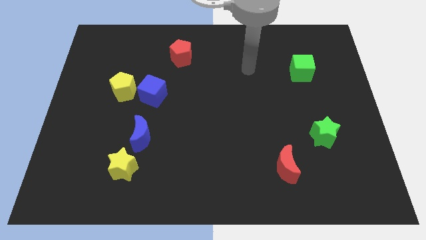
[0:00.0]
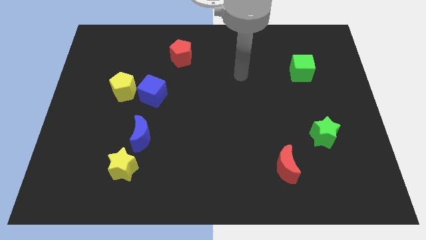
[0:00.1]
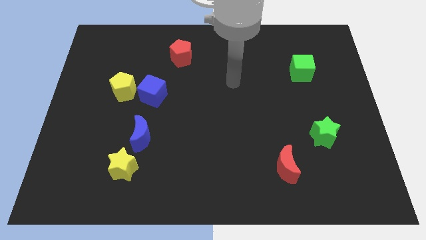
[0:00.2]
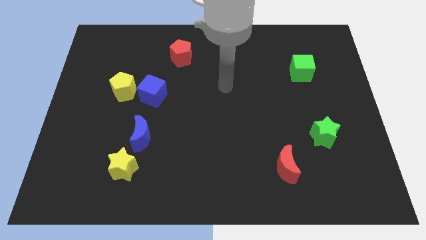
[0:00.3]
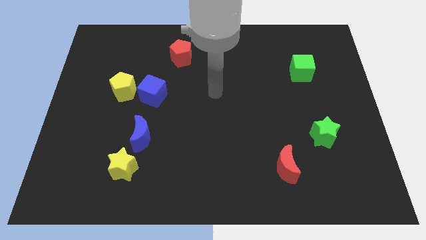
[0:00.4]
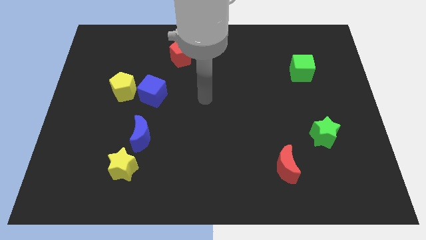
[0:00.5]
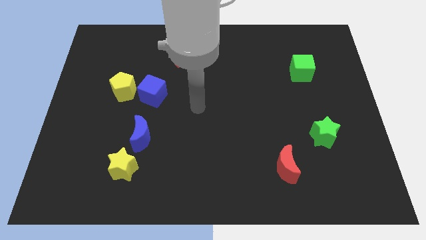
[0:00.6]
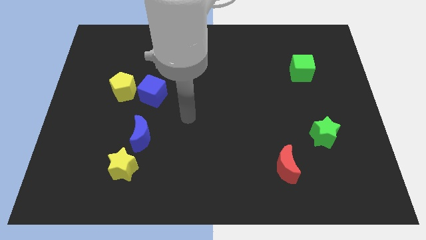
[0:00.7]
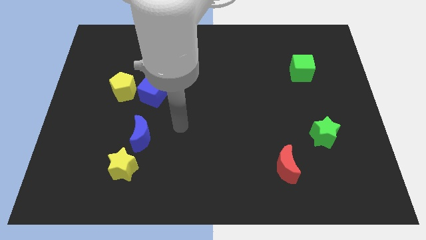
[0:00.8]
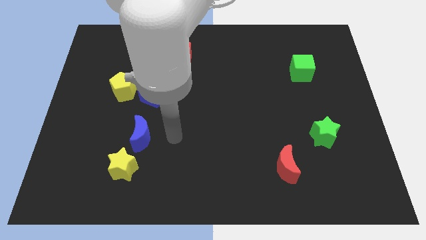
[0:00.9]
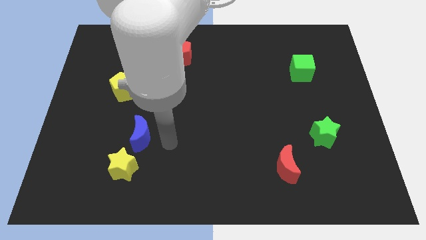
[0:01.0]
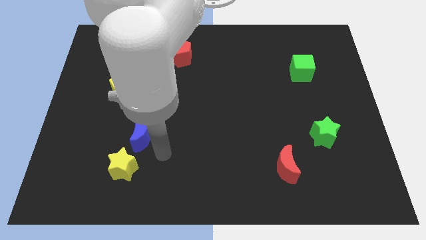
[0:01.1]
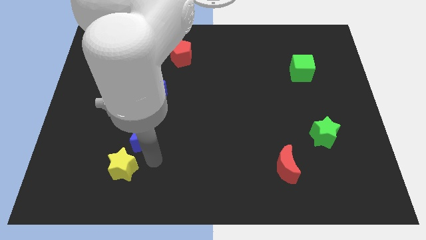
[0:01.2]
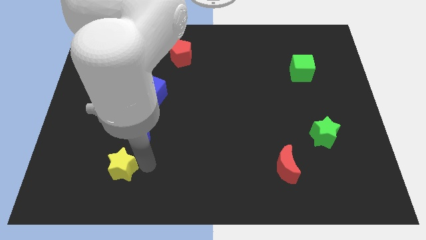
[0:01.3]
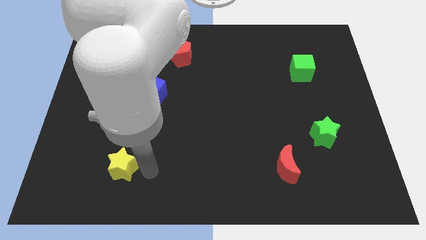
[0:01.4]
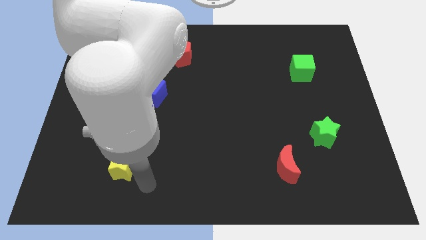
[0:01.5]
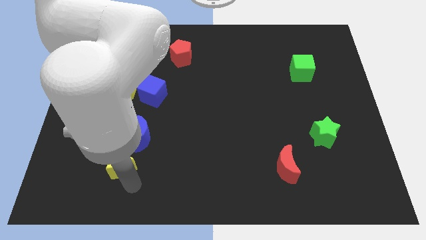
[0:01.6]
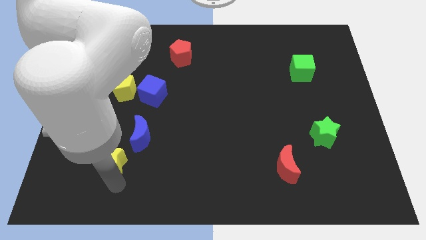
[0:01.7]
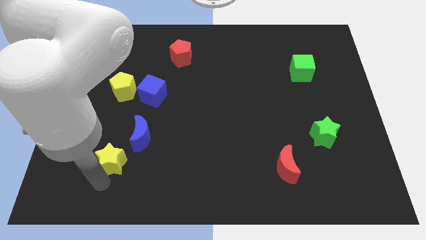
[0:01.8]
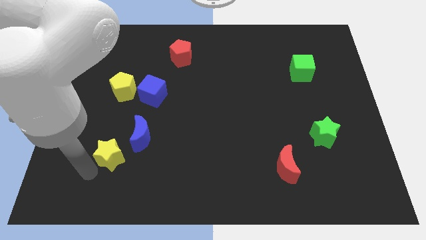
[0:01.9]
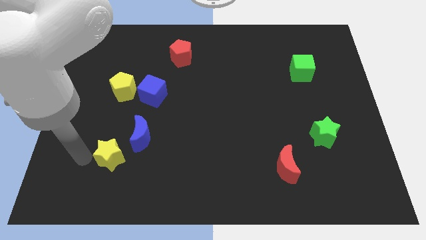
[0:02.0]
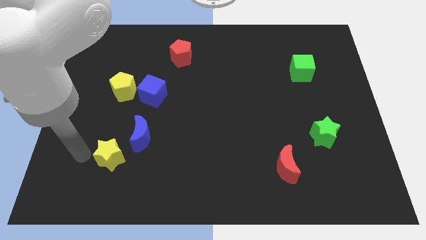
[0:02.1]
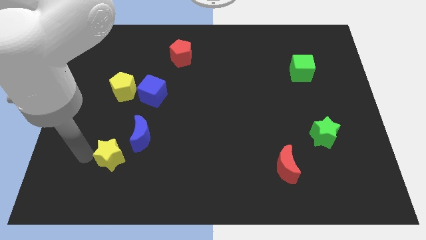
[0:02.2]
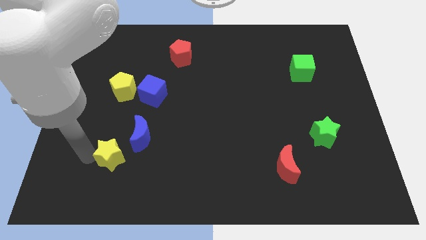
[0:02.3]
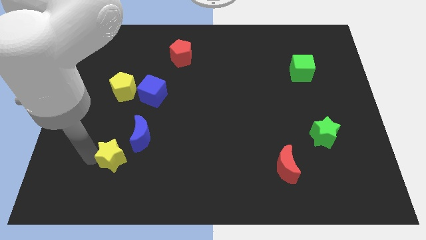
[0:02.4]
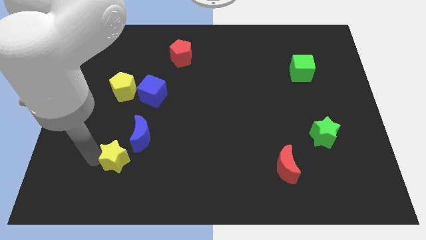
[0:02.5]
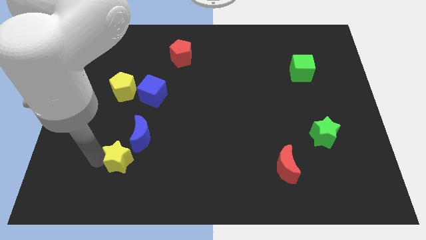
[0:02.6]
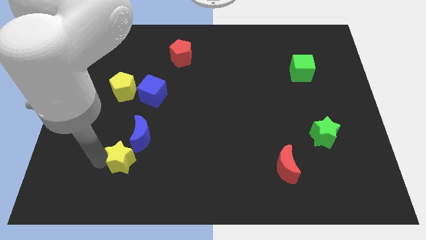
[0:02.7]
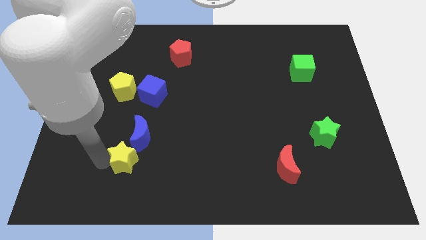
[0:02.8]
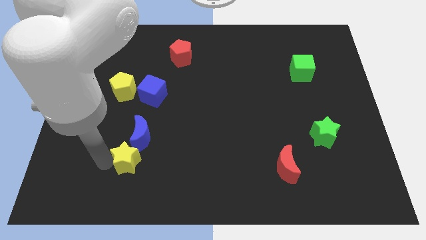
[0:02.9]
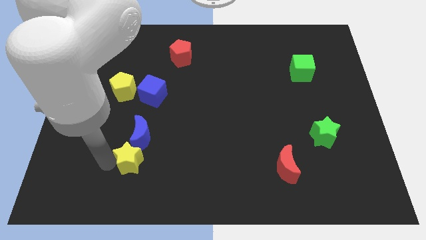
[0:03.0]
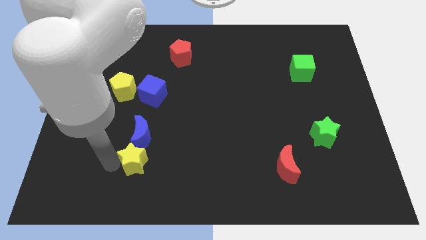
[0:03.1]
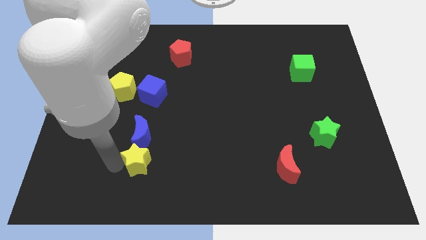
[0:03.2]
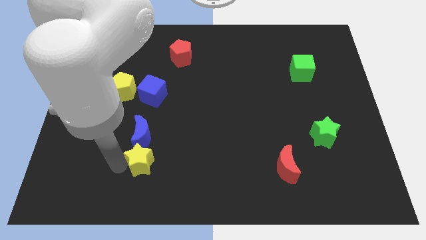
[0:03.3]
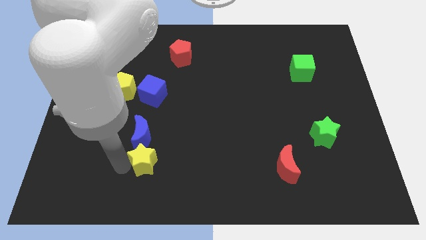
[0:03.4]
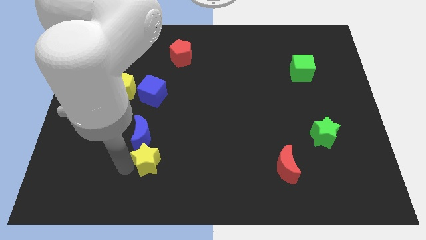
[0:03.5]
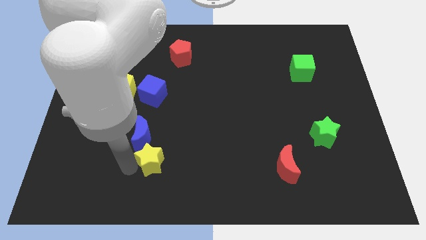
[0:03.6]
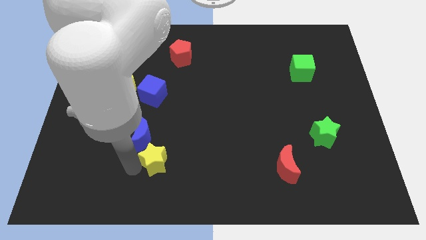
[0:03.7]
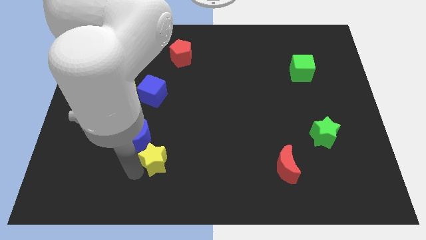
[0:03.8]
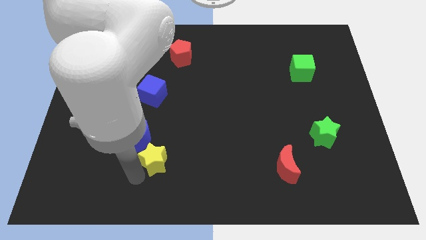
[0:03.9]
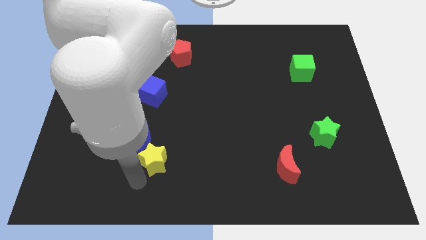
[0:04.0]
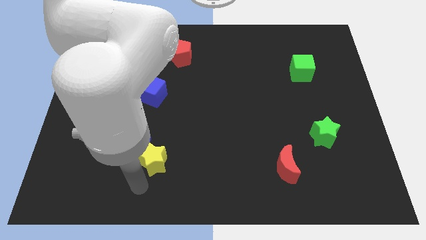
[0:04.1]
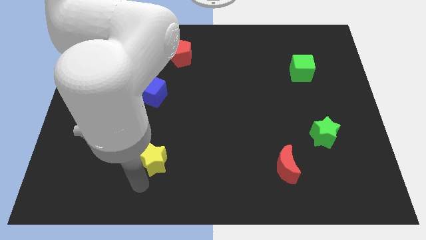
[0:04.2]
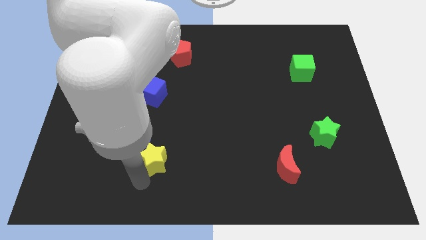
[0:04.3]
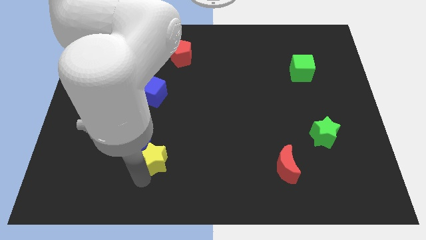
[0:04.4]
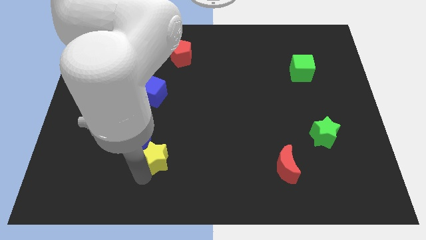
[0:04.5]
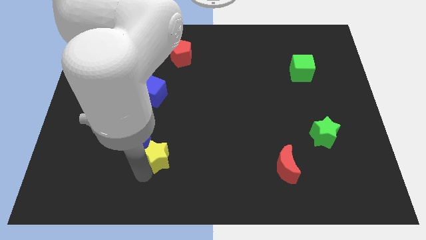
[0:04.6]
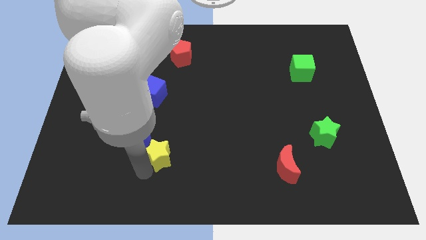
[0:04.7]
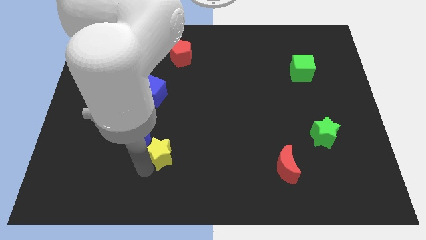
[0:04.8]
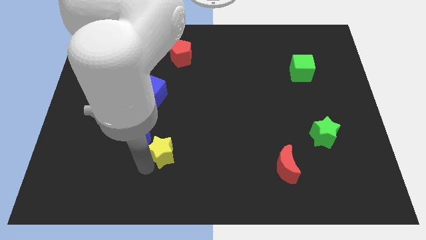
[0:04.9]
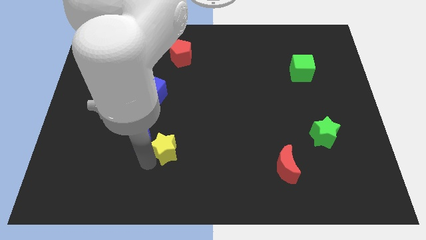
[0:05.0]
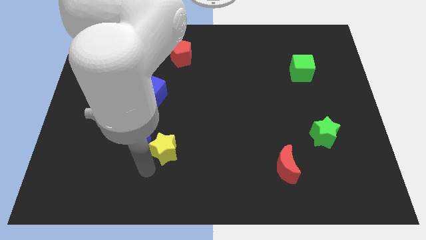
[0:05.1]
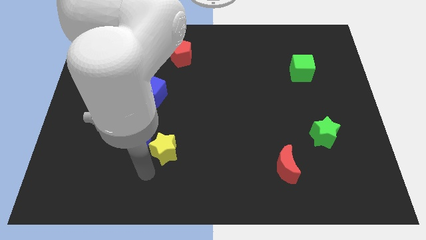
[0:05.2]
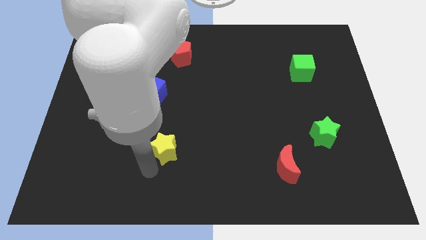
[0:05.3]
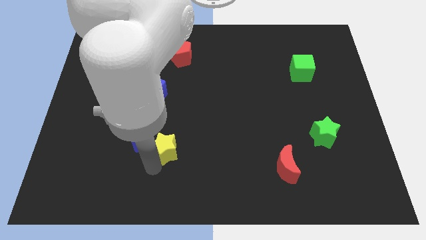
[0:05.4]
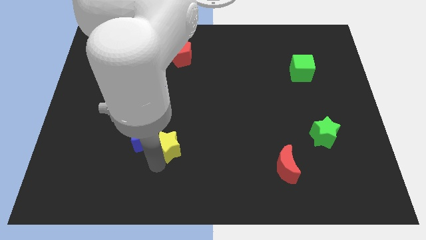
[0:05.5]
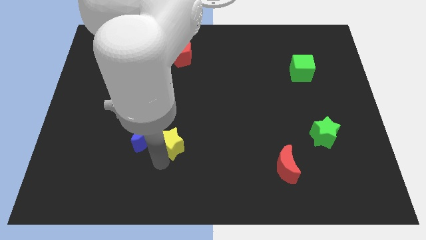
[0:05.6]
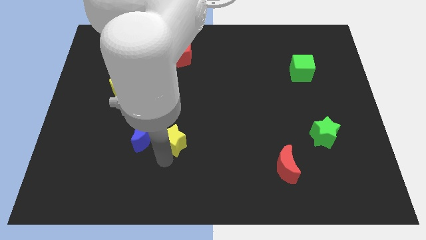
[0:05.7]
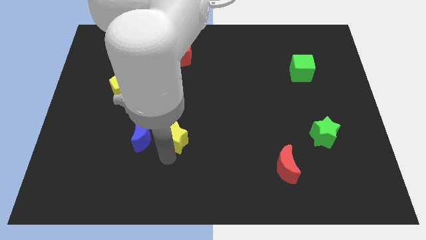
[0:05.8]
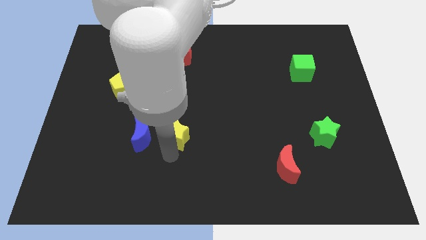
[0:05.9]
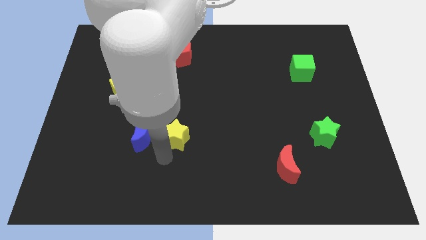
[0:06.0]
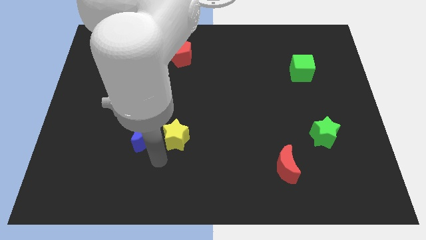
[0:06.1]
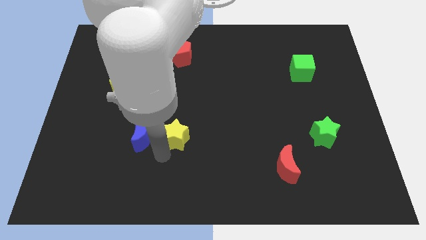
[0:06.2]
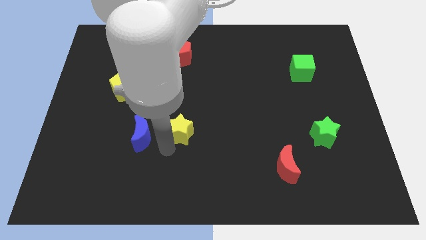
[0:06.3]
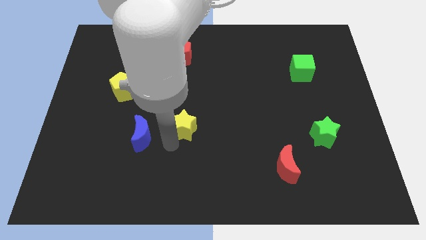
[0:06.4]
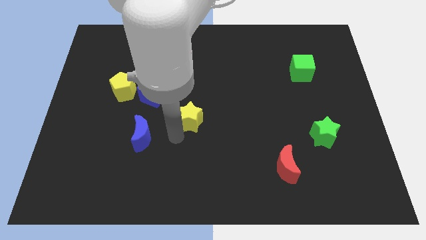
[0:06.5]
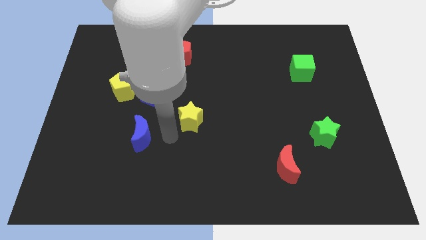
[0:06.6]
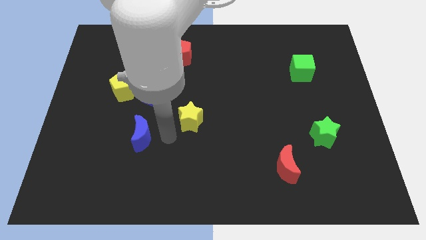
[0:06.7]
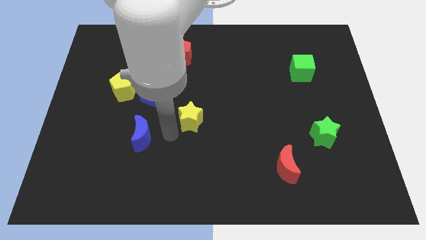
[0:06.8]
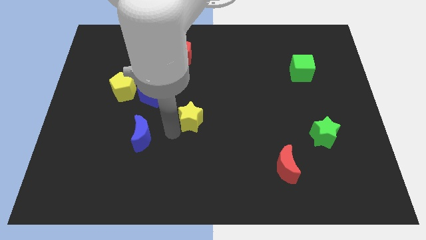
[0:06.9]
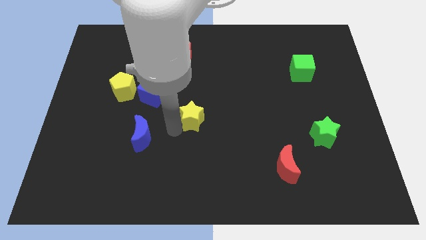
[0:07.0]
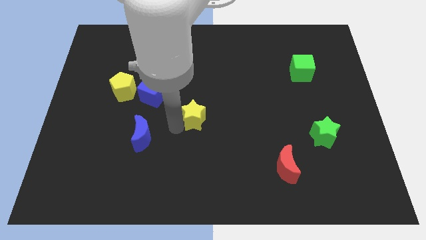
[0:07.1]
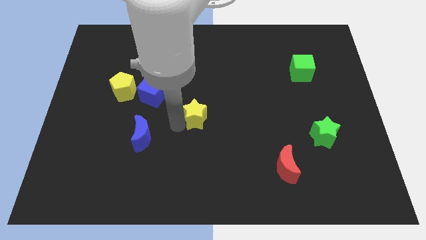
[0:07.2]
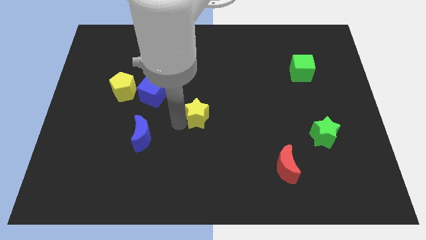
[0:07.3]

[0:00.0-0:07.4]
push the yellow star up and then right

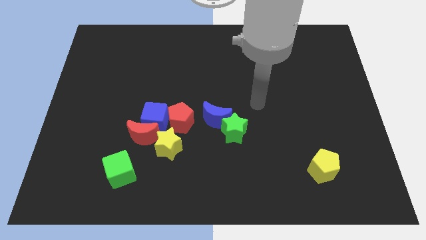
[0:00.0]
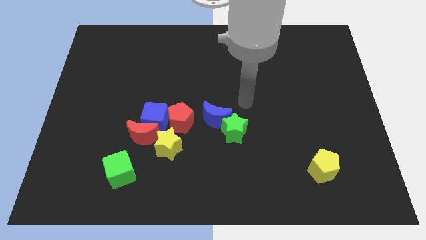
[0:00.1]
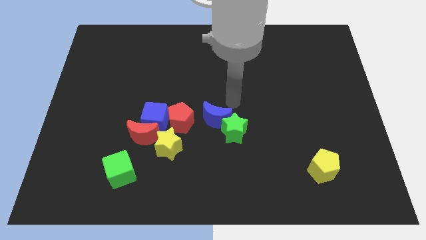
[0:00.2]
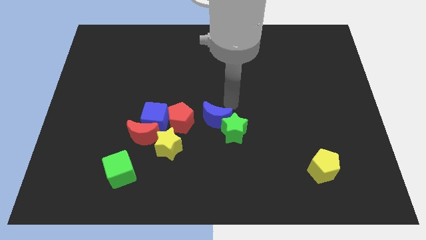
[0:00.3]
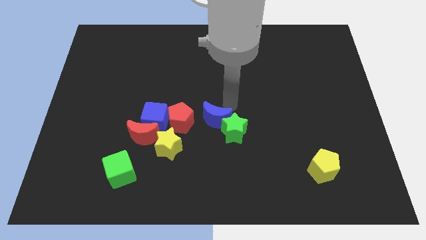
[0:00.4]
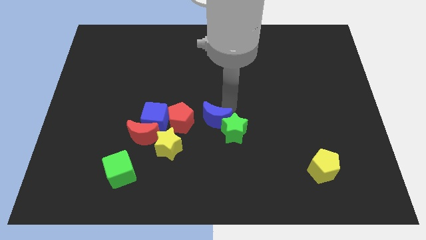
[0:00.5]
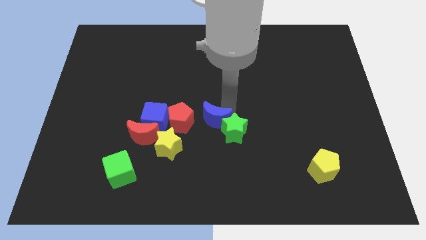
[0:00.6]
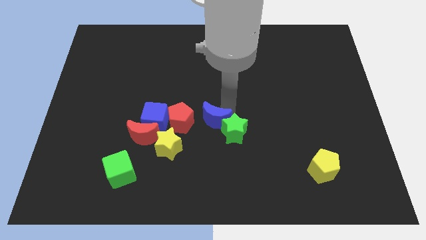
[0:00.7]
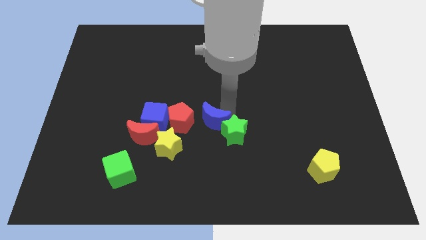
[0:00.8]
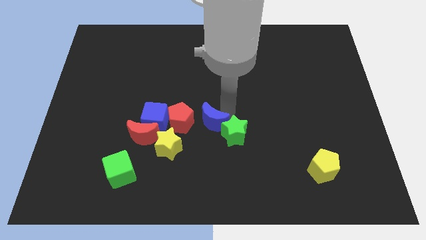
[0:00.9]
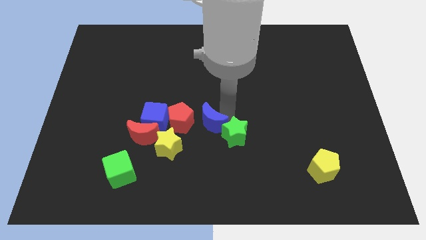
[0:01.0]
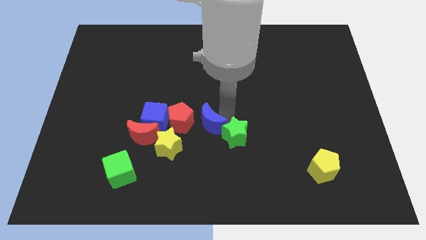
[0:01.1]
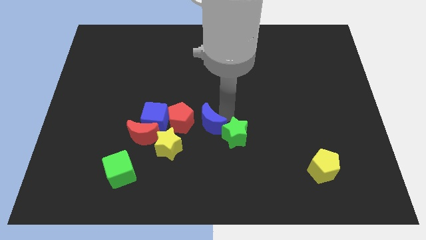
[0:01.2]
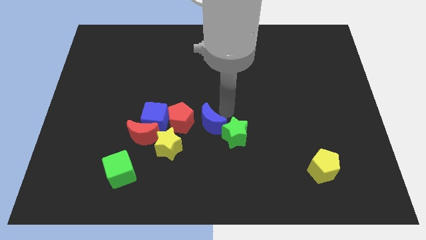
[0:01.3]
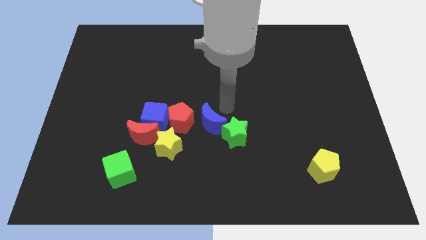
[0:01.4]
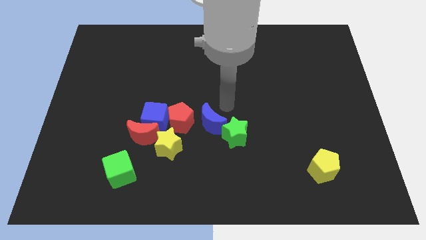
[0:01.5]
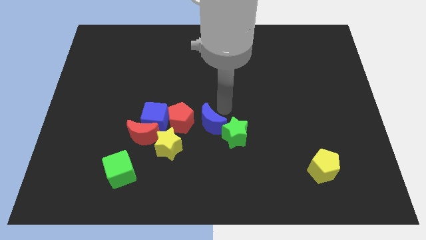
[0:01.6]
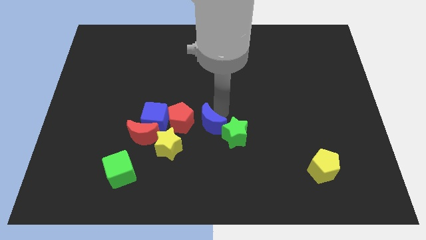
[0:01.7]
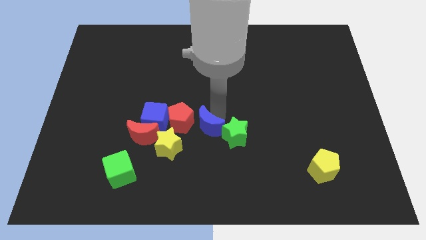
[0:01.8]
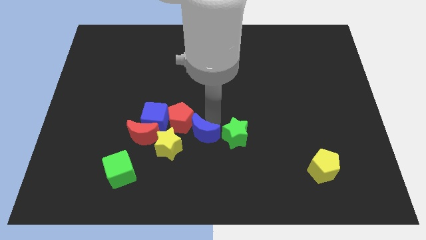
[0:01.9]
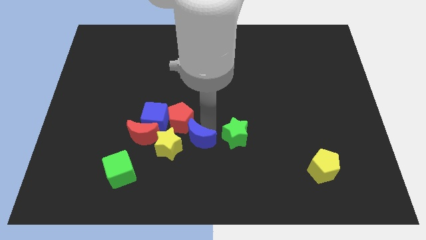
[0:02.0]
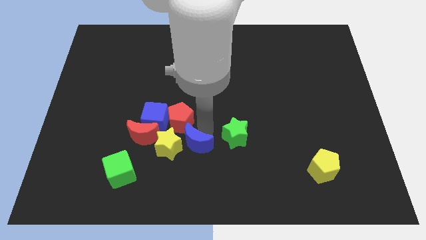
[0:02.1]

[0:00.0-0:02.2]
move the blue moon diagonally downwards and to the left a little
